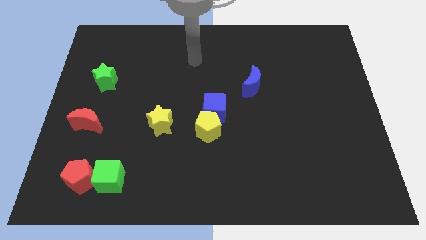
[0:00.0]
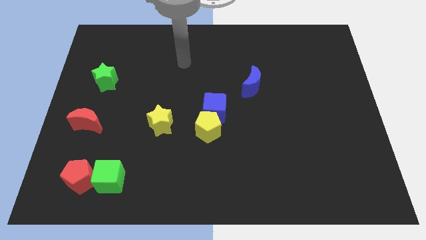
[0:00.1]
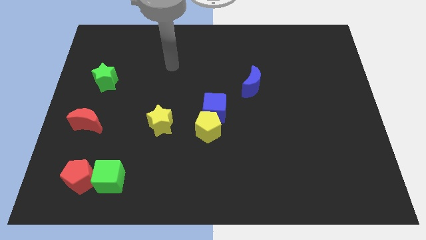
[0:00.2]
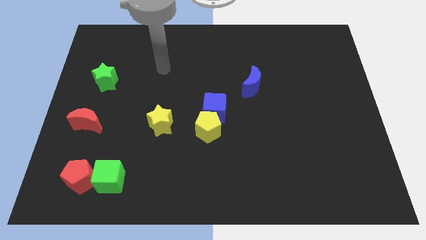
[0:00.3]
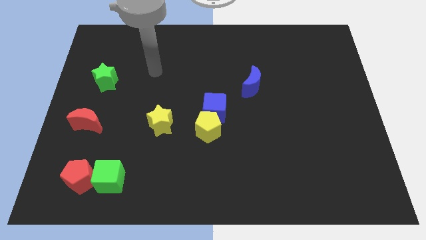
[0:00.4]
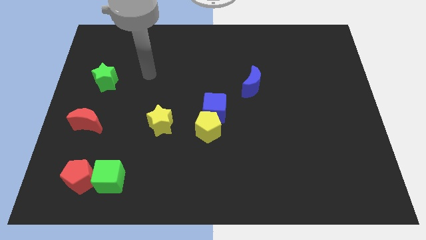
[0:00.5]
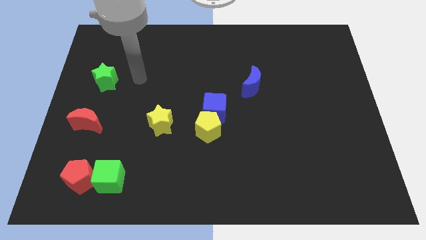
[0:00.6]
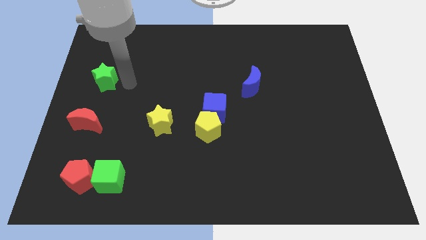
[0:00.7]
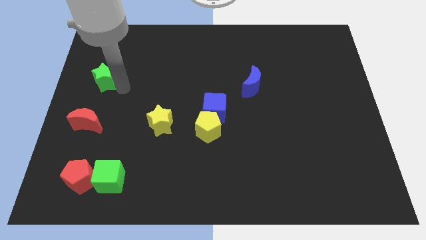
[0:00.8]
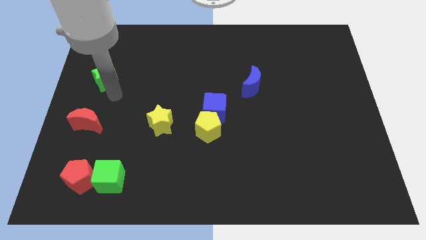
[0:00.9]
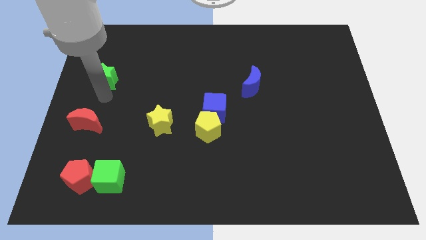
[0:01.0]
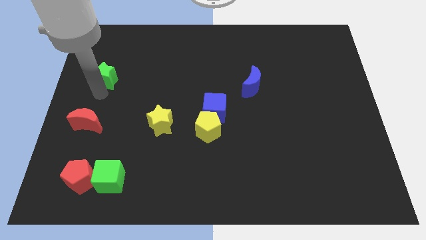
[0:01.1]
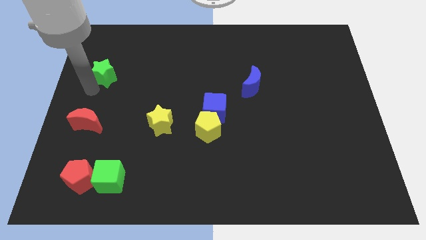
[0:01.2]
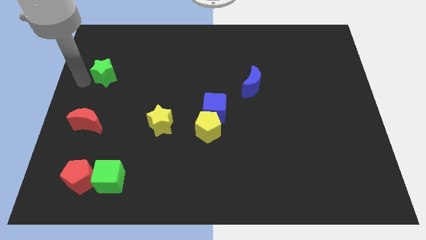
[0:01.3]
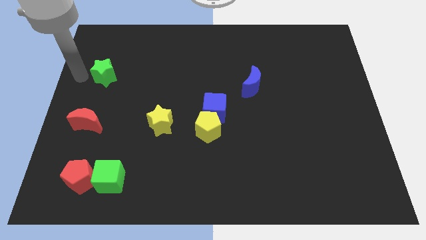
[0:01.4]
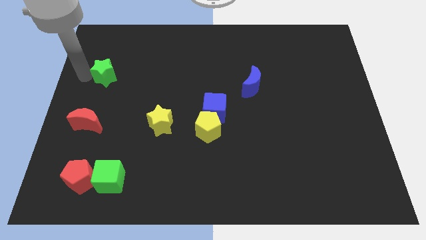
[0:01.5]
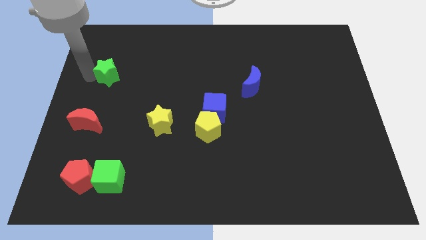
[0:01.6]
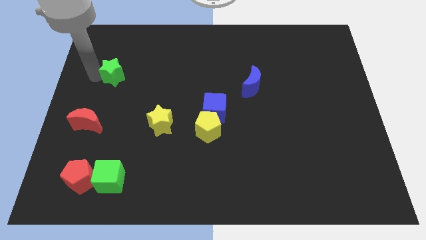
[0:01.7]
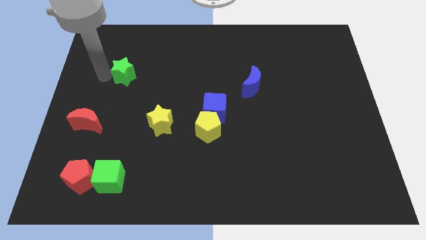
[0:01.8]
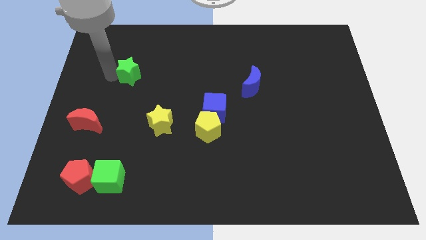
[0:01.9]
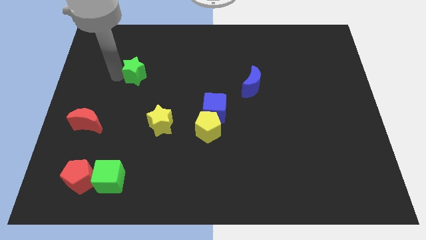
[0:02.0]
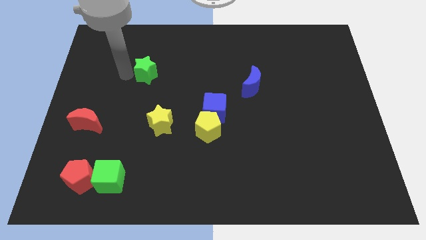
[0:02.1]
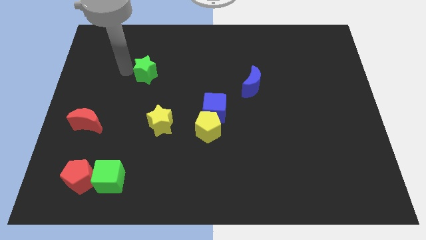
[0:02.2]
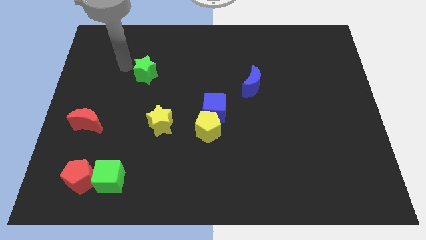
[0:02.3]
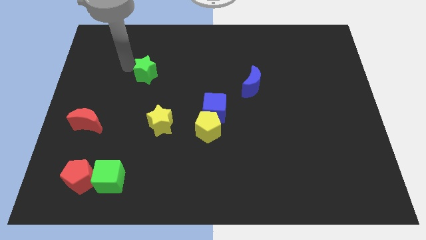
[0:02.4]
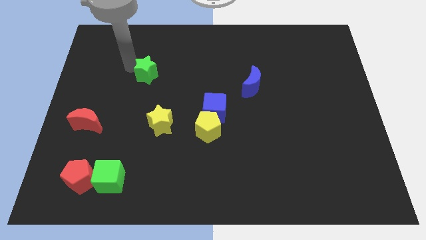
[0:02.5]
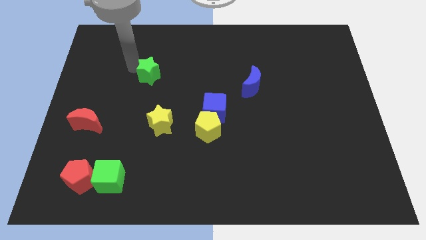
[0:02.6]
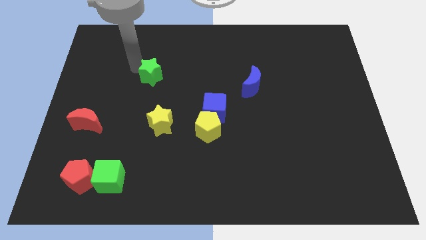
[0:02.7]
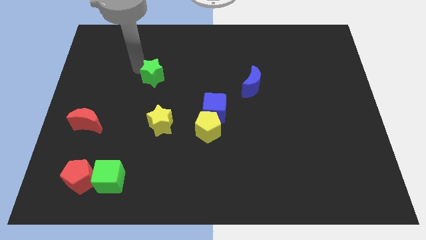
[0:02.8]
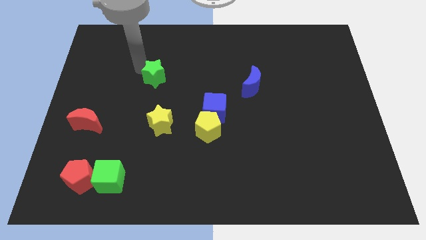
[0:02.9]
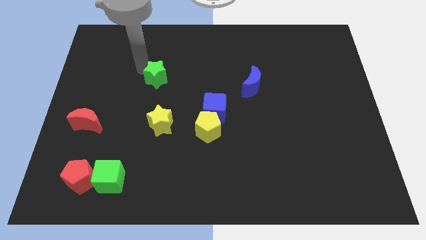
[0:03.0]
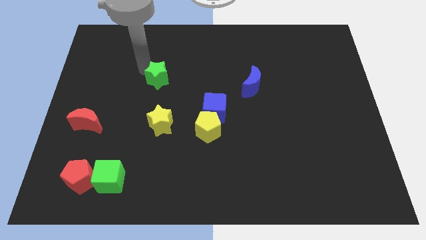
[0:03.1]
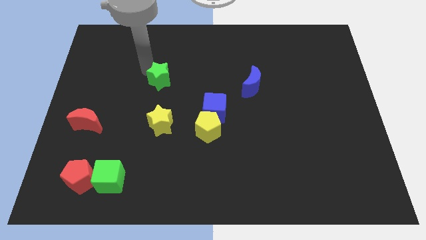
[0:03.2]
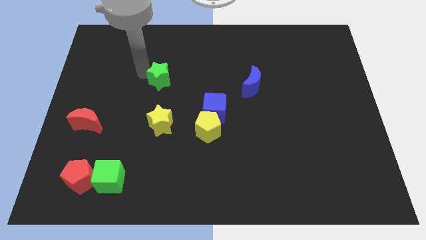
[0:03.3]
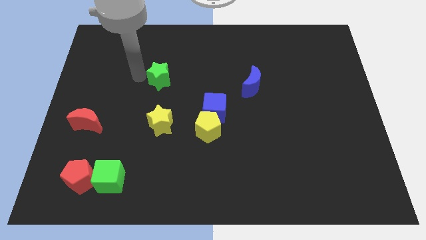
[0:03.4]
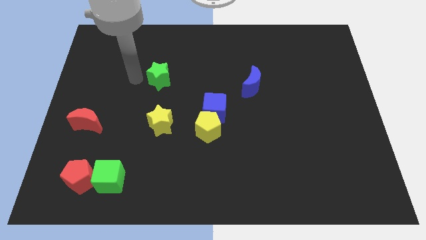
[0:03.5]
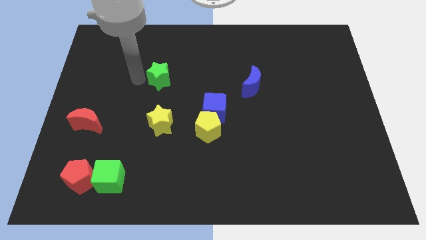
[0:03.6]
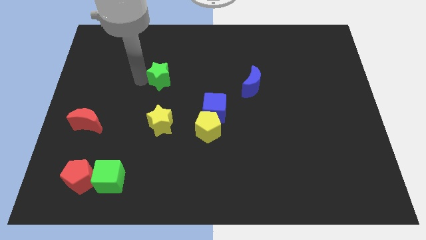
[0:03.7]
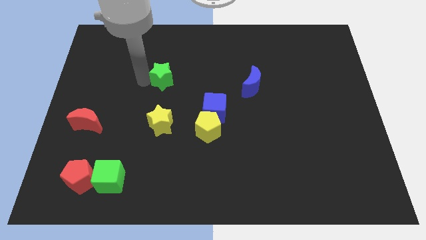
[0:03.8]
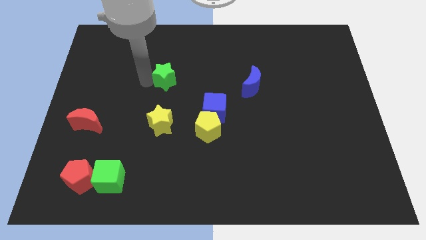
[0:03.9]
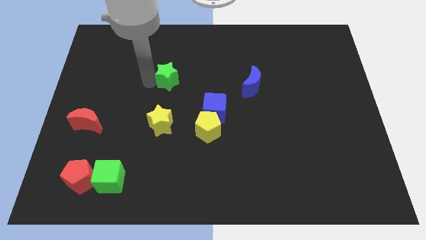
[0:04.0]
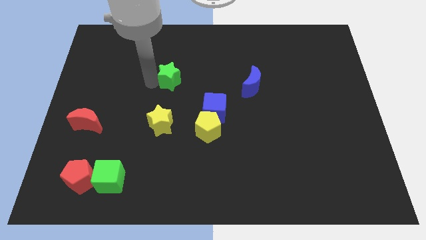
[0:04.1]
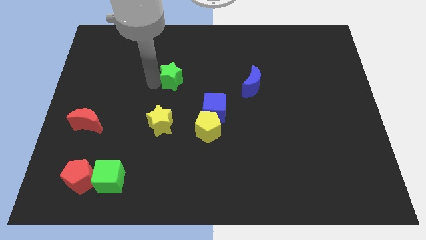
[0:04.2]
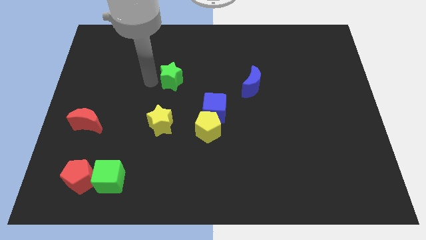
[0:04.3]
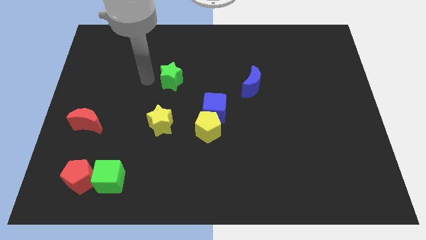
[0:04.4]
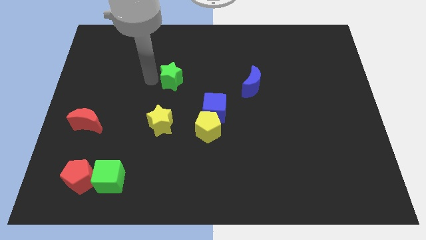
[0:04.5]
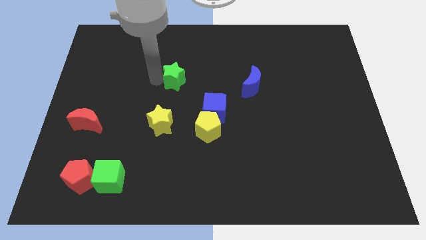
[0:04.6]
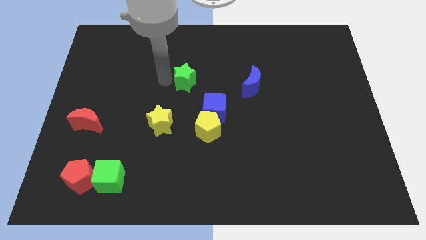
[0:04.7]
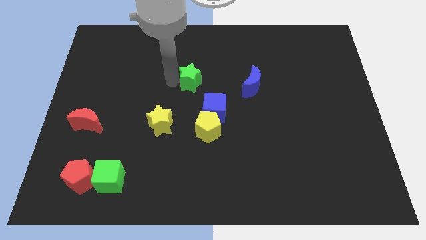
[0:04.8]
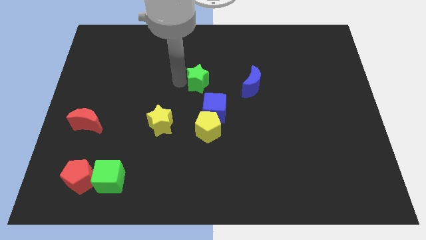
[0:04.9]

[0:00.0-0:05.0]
move the green star to the top side of the blue cube

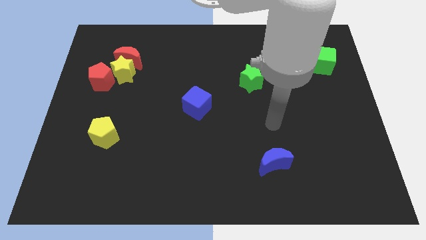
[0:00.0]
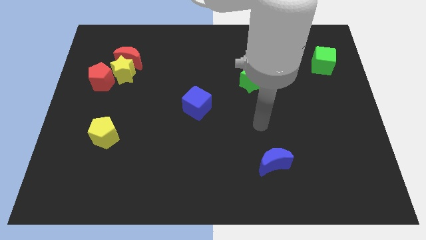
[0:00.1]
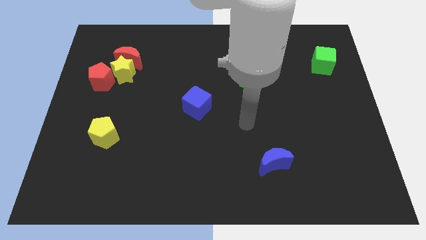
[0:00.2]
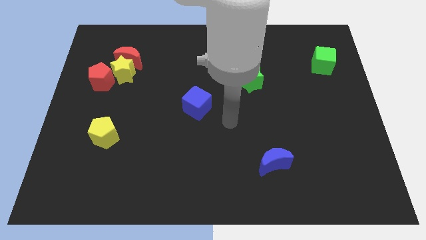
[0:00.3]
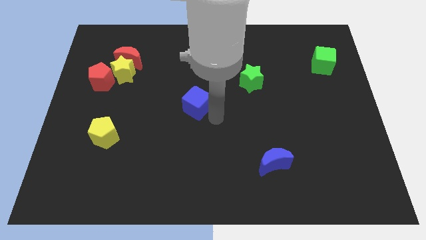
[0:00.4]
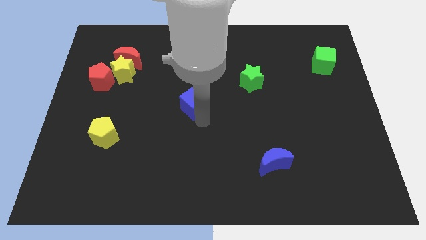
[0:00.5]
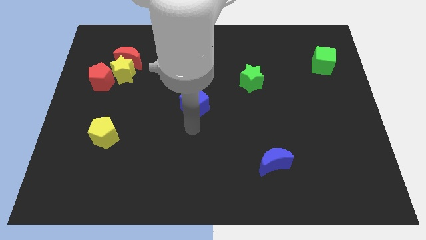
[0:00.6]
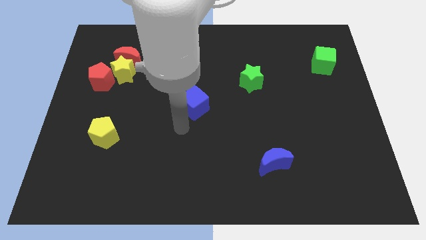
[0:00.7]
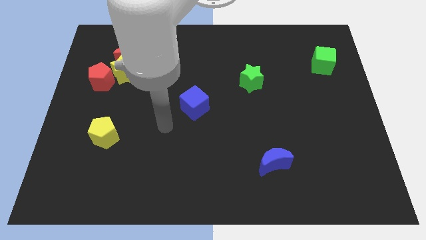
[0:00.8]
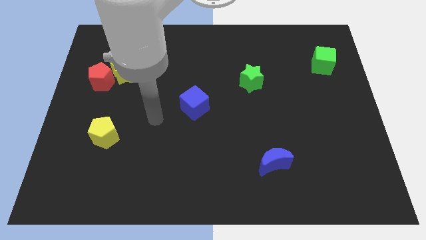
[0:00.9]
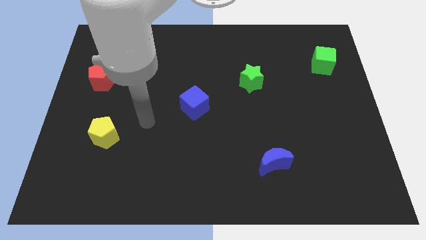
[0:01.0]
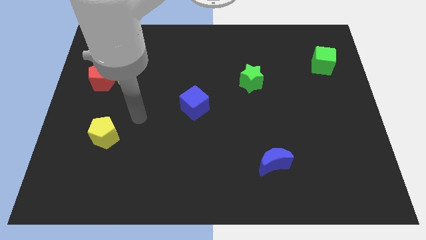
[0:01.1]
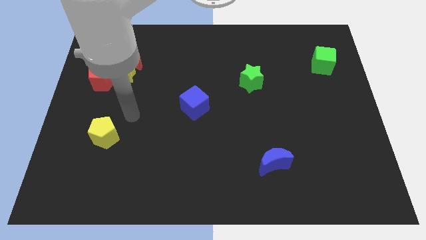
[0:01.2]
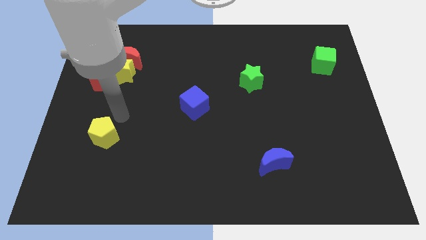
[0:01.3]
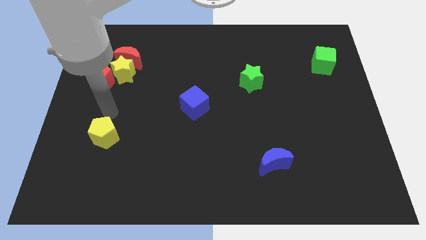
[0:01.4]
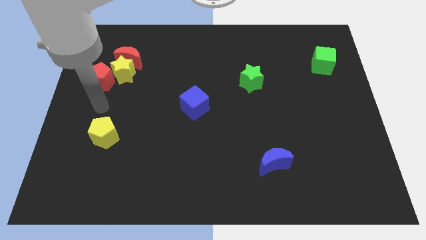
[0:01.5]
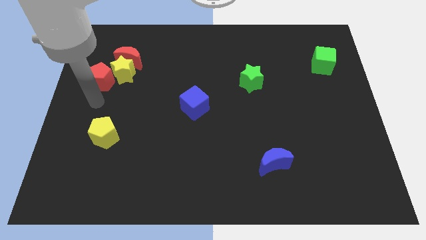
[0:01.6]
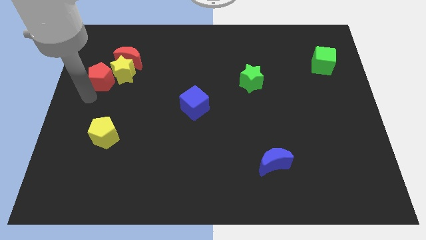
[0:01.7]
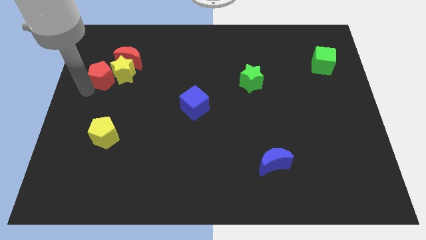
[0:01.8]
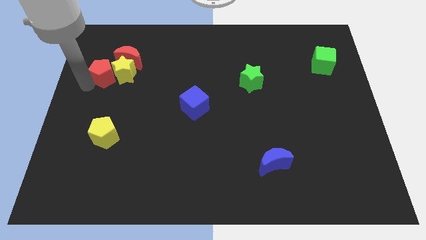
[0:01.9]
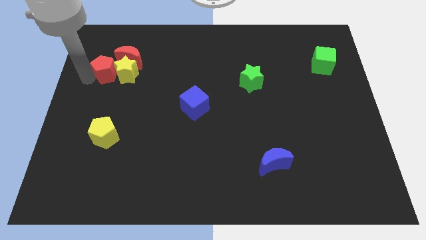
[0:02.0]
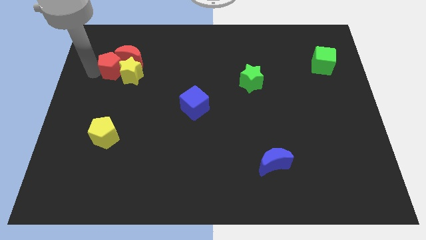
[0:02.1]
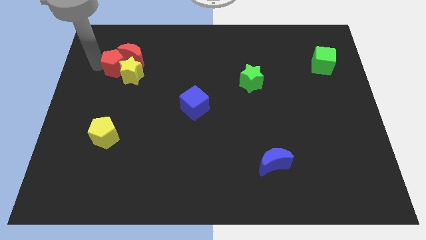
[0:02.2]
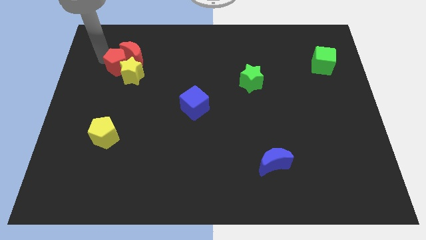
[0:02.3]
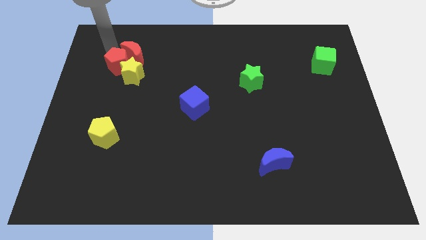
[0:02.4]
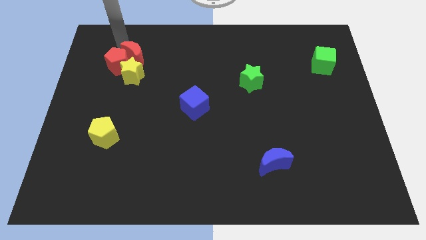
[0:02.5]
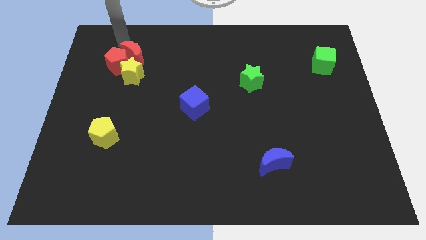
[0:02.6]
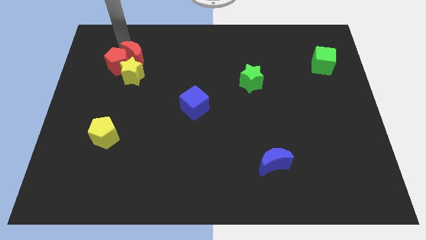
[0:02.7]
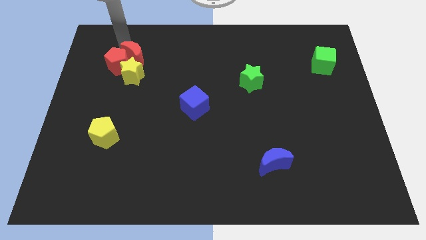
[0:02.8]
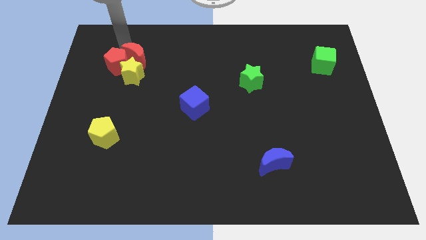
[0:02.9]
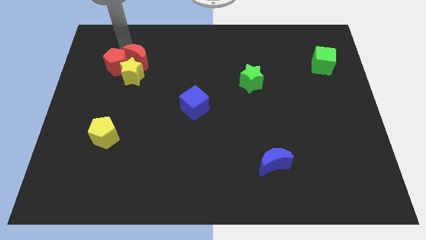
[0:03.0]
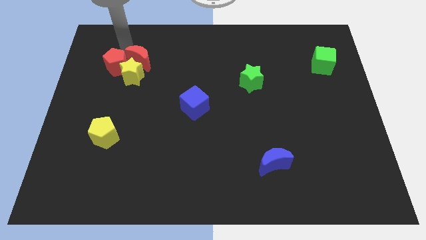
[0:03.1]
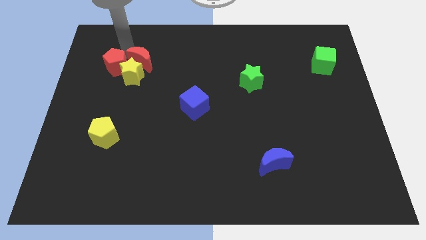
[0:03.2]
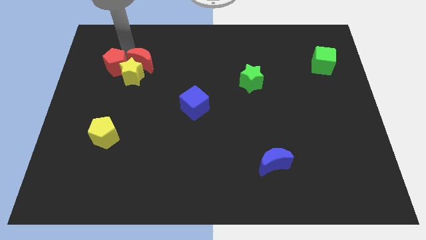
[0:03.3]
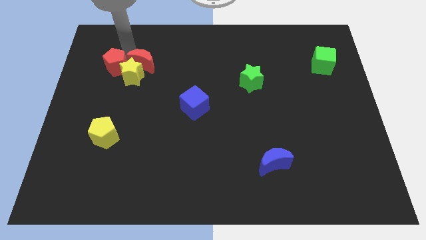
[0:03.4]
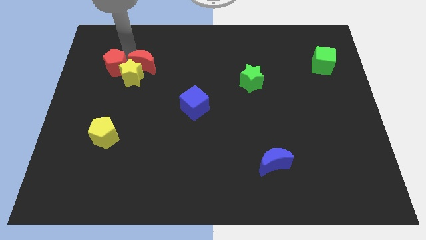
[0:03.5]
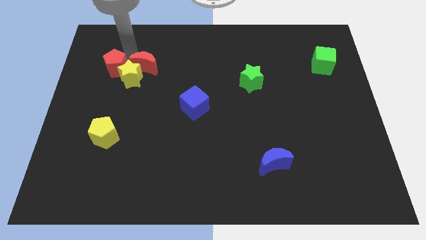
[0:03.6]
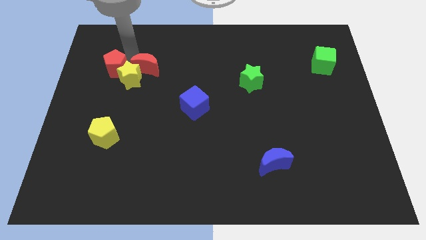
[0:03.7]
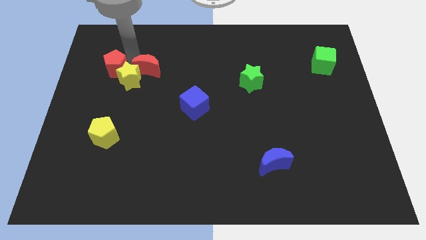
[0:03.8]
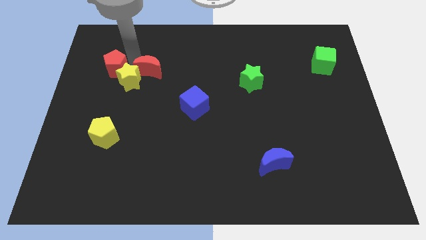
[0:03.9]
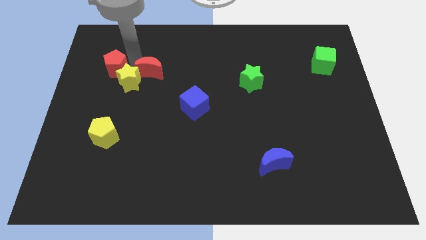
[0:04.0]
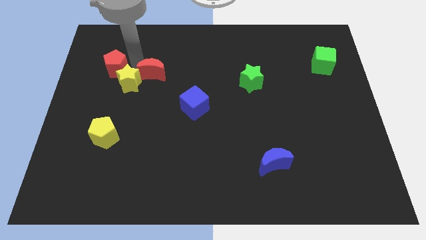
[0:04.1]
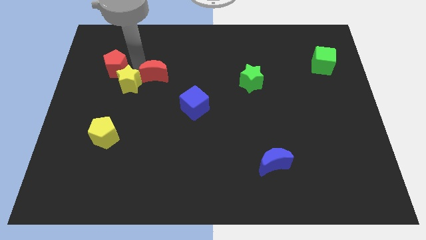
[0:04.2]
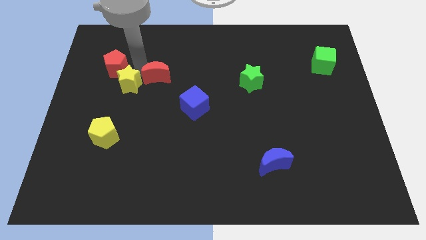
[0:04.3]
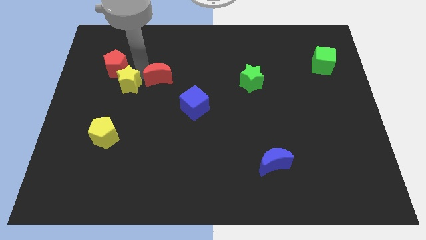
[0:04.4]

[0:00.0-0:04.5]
put the red moon diagonally up and to the left of the blue cube
